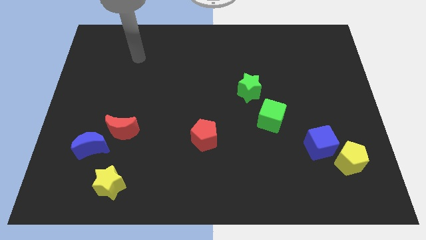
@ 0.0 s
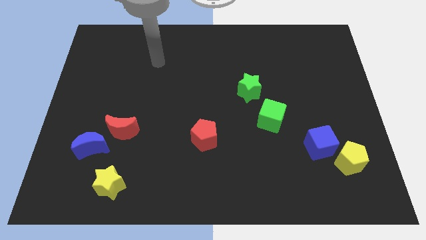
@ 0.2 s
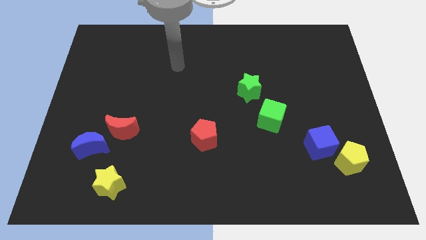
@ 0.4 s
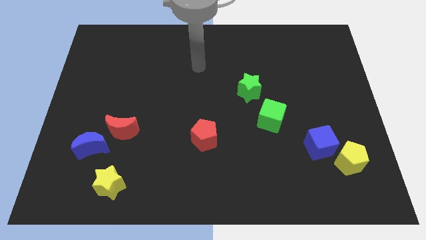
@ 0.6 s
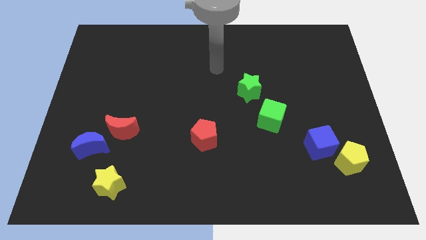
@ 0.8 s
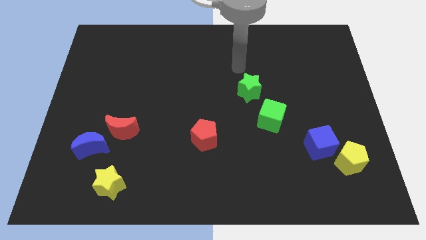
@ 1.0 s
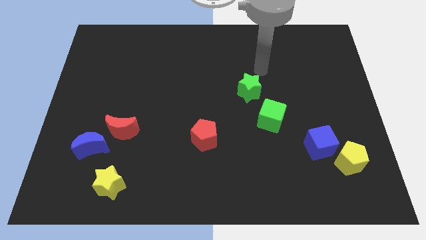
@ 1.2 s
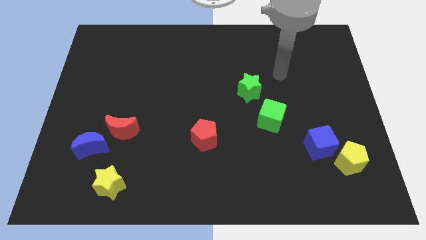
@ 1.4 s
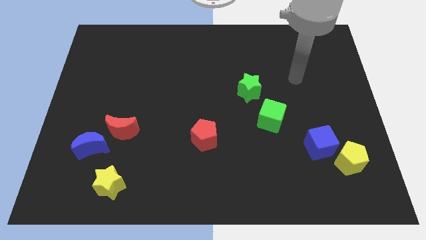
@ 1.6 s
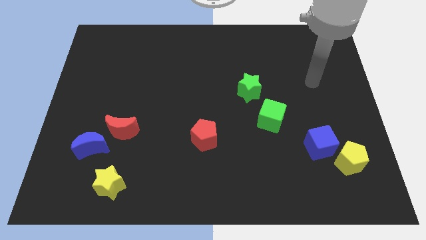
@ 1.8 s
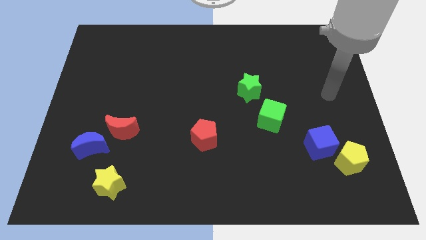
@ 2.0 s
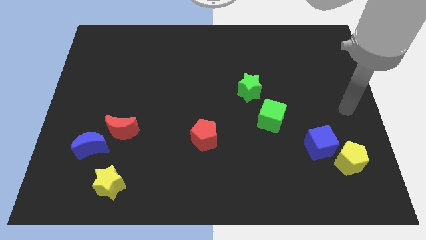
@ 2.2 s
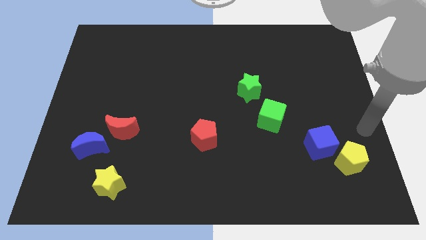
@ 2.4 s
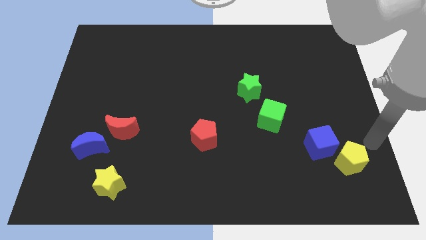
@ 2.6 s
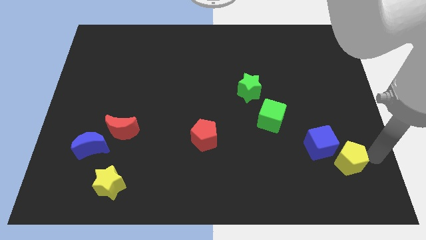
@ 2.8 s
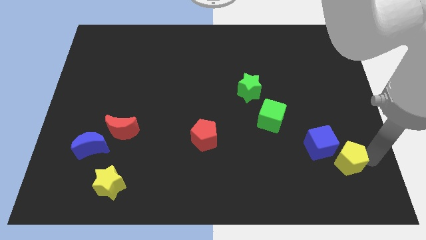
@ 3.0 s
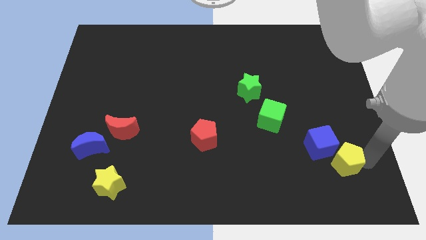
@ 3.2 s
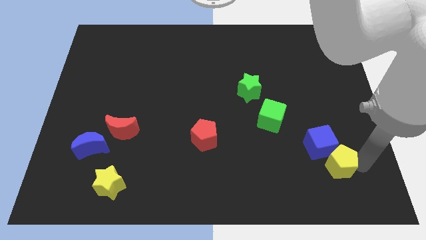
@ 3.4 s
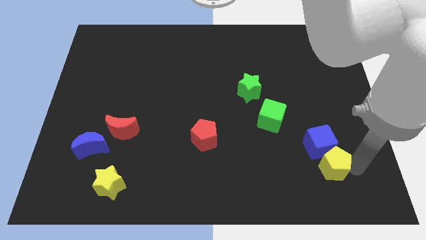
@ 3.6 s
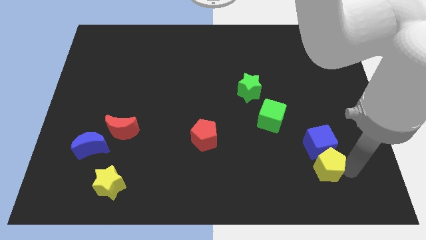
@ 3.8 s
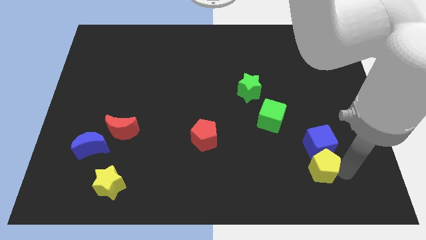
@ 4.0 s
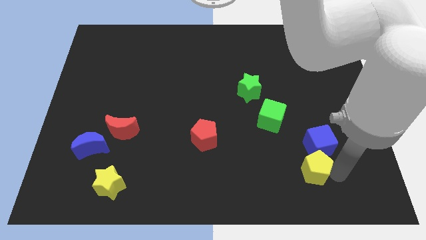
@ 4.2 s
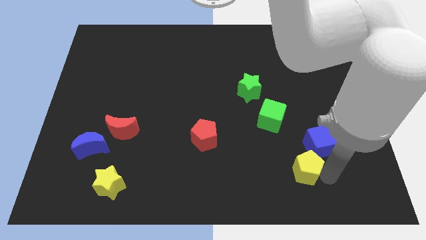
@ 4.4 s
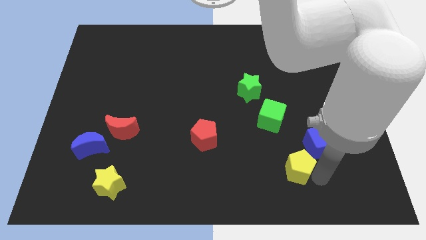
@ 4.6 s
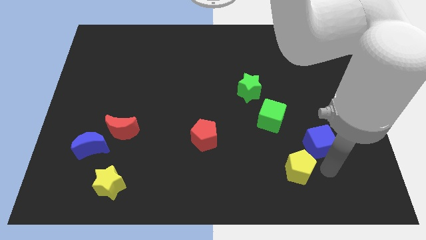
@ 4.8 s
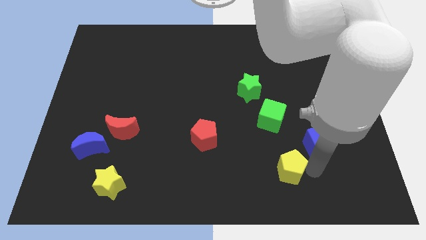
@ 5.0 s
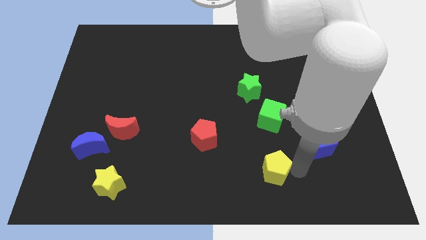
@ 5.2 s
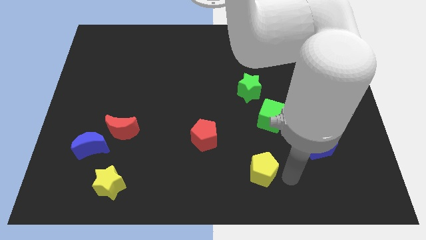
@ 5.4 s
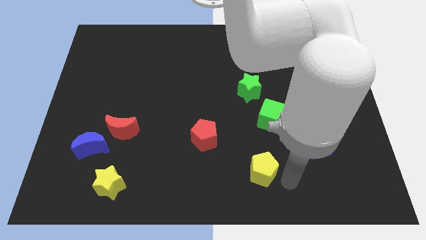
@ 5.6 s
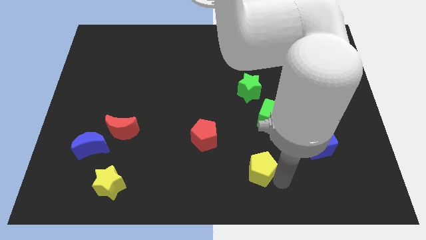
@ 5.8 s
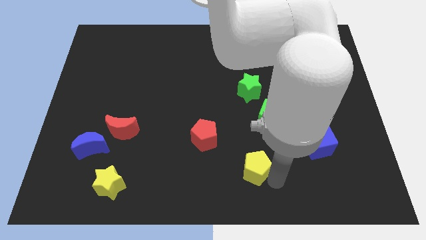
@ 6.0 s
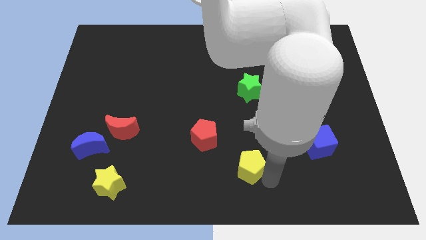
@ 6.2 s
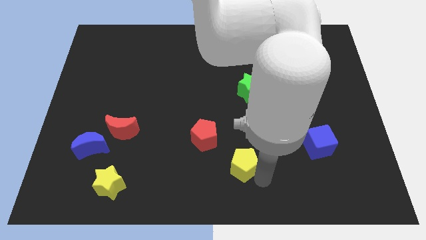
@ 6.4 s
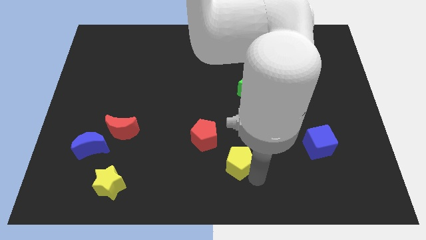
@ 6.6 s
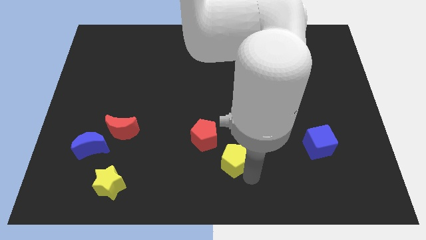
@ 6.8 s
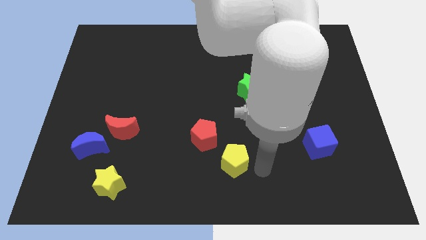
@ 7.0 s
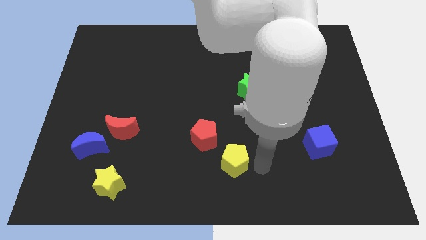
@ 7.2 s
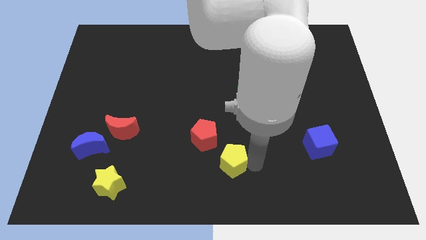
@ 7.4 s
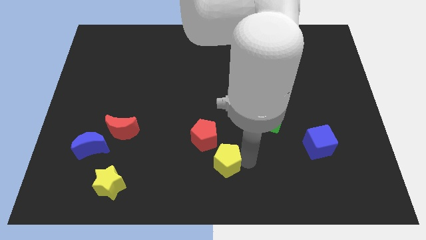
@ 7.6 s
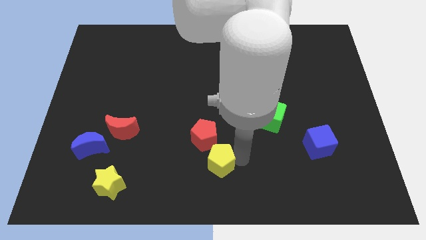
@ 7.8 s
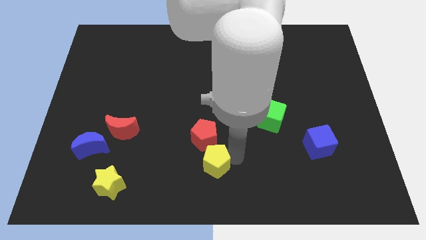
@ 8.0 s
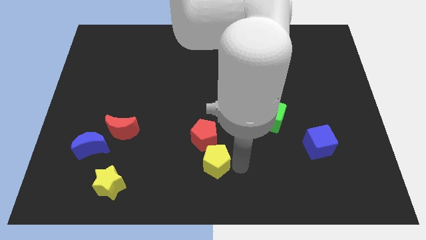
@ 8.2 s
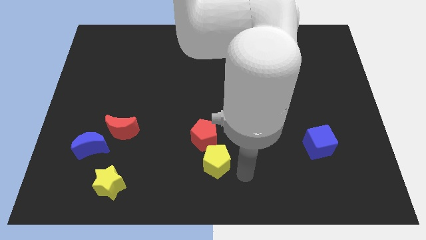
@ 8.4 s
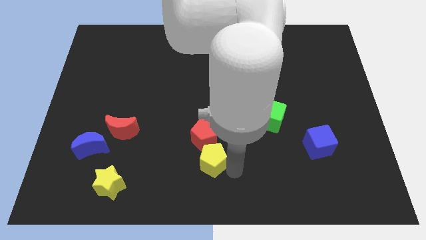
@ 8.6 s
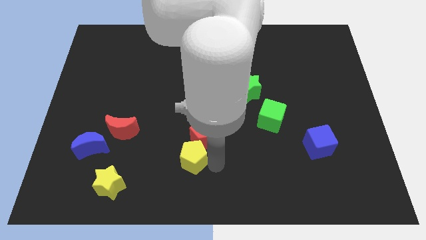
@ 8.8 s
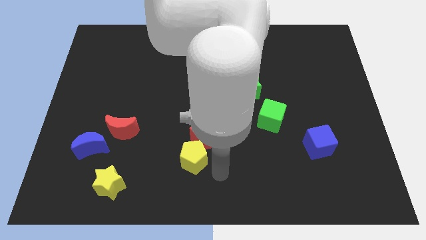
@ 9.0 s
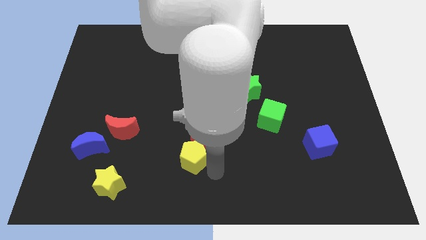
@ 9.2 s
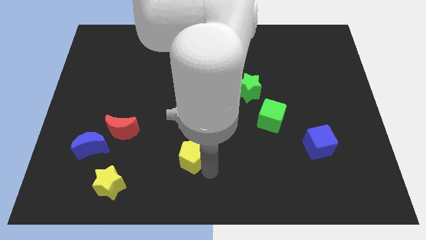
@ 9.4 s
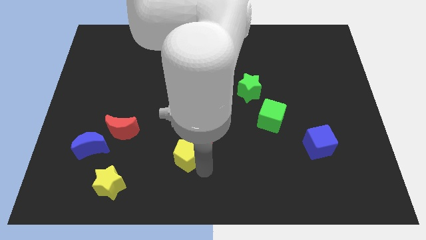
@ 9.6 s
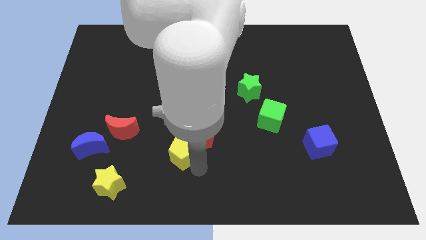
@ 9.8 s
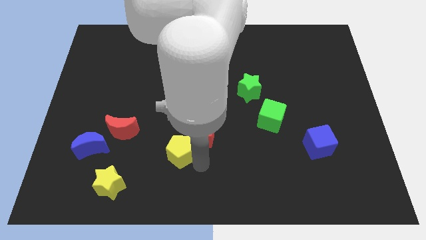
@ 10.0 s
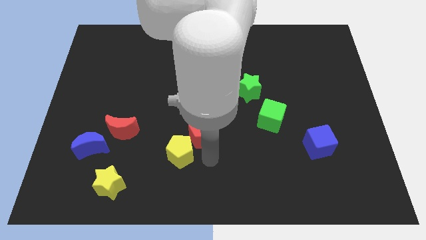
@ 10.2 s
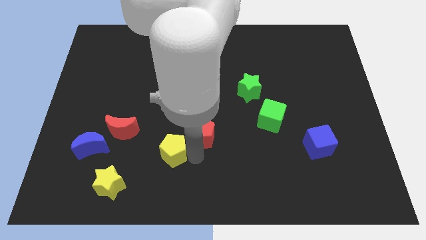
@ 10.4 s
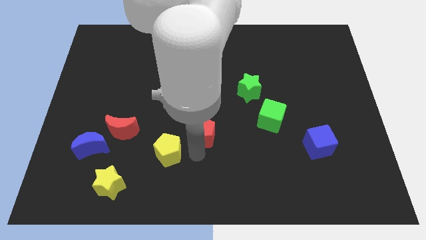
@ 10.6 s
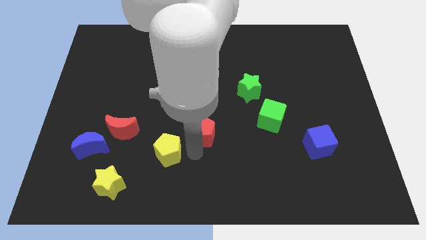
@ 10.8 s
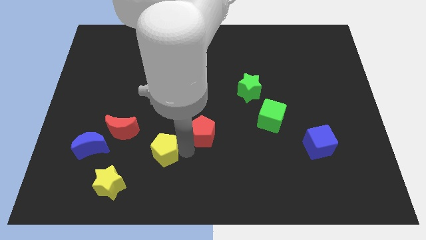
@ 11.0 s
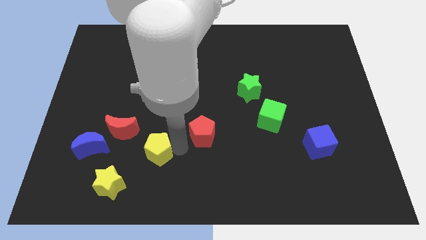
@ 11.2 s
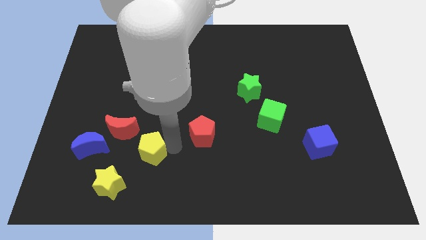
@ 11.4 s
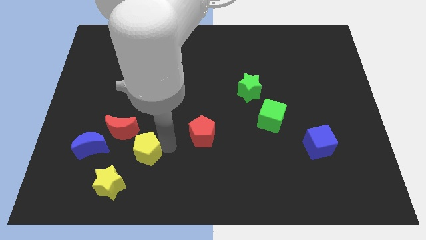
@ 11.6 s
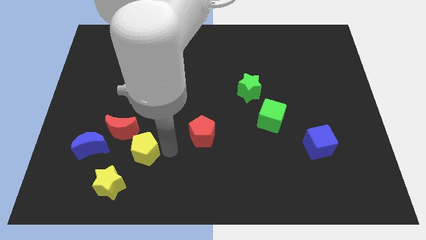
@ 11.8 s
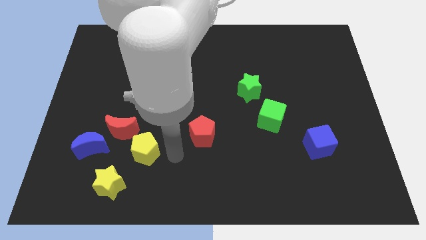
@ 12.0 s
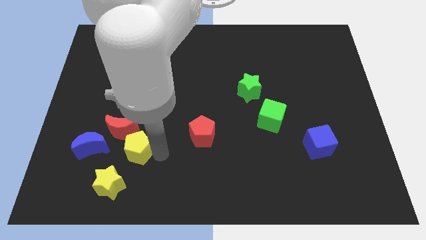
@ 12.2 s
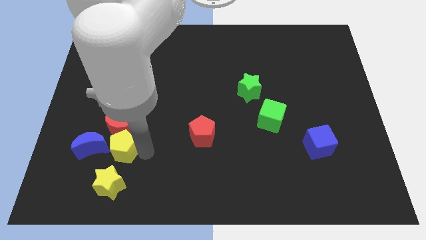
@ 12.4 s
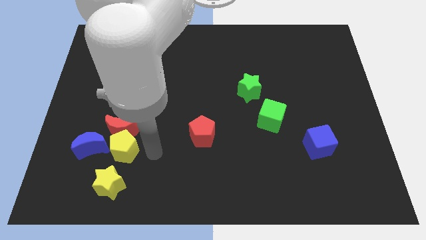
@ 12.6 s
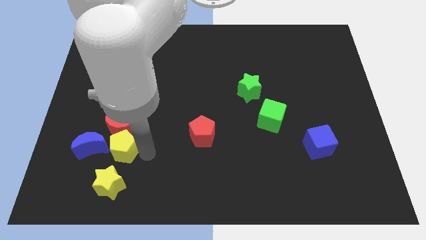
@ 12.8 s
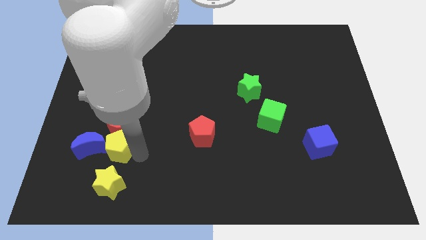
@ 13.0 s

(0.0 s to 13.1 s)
push the yellow pentagon close to the blue moon
